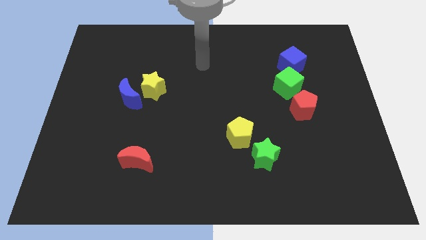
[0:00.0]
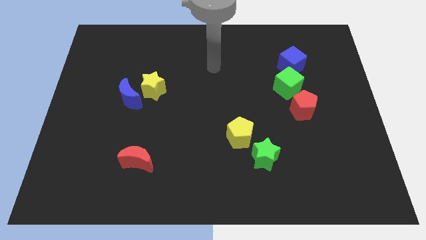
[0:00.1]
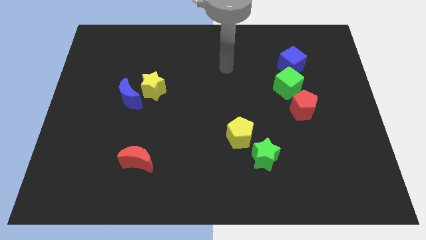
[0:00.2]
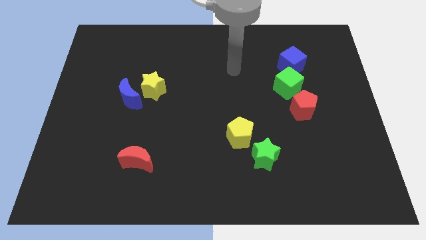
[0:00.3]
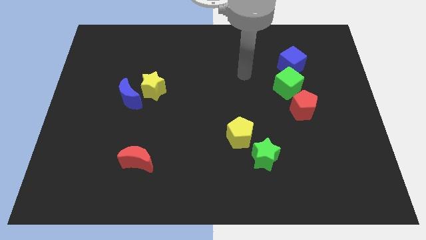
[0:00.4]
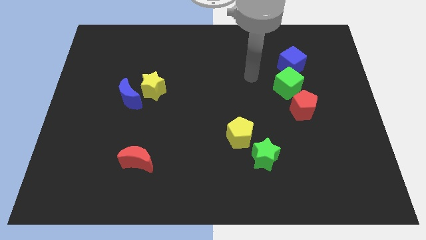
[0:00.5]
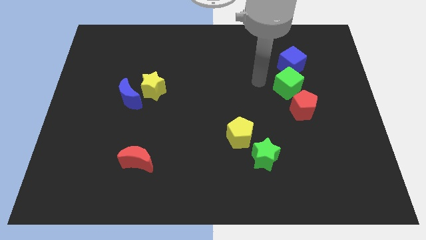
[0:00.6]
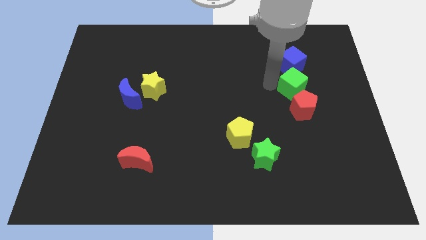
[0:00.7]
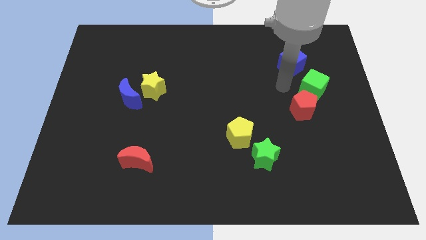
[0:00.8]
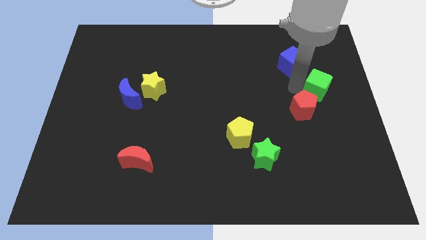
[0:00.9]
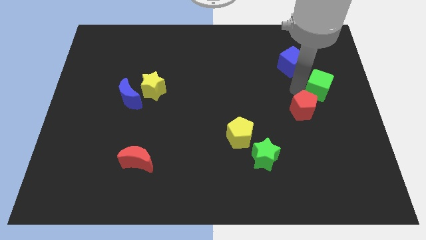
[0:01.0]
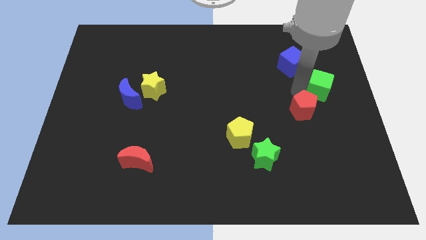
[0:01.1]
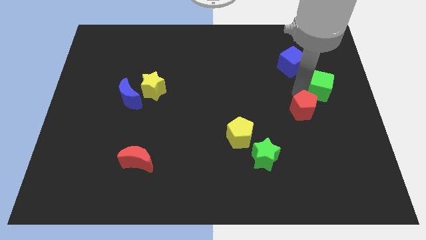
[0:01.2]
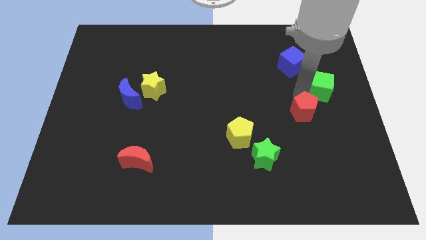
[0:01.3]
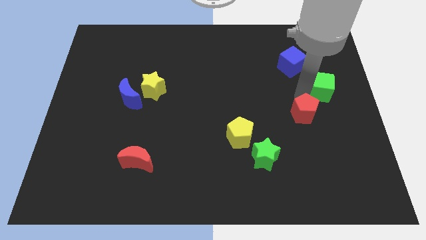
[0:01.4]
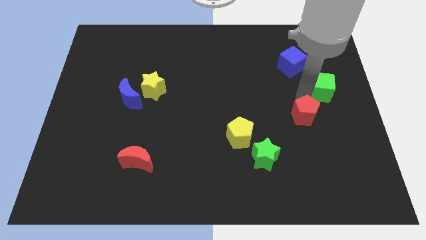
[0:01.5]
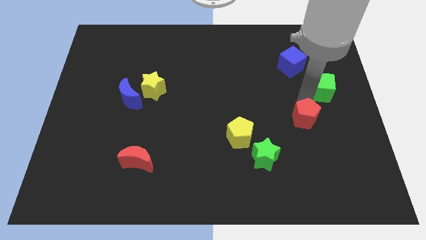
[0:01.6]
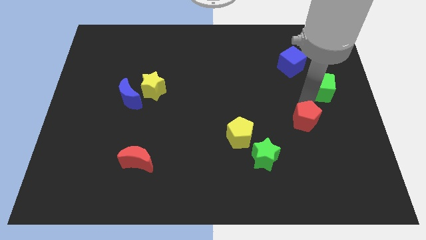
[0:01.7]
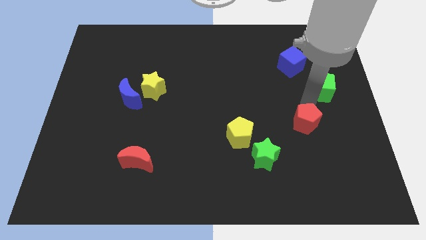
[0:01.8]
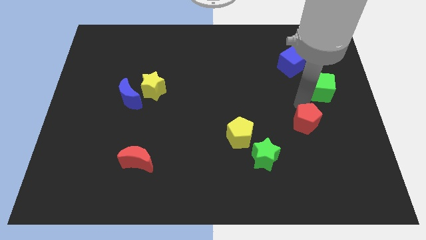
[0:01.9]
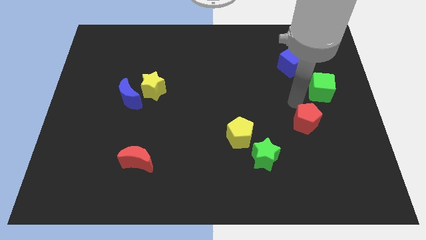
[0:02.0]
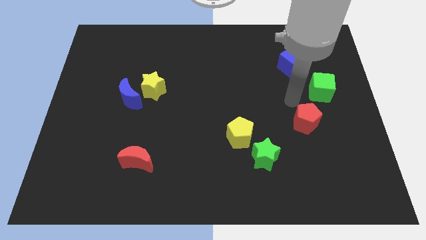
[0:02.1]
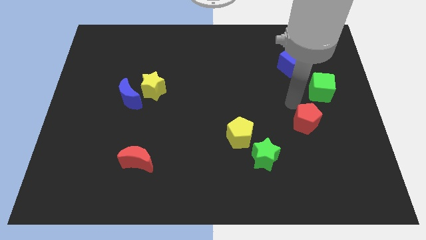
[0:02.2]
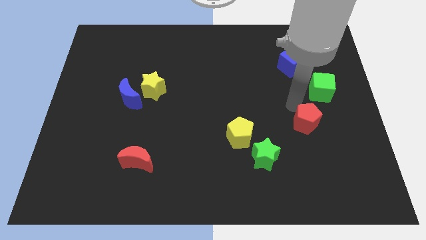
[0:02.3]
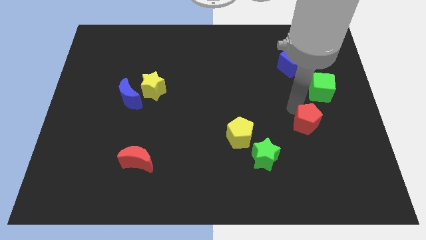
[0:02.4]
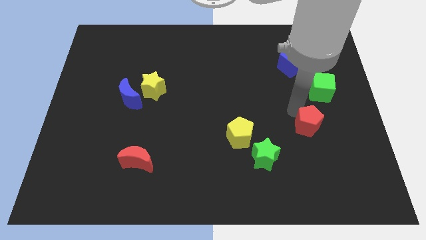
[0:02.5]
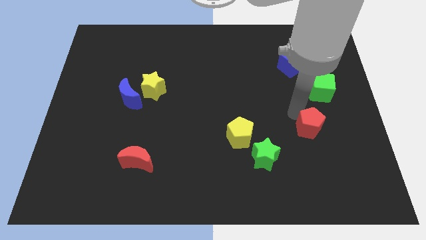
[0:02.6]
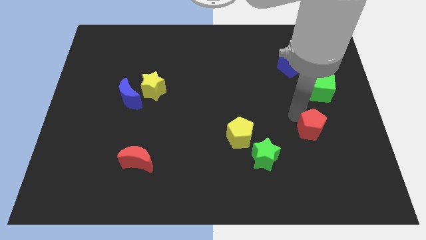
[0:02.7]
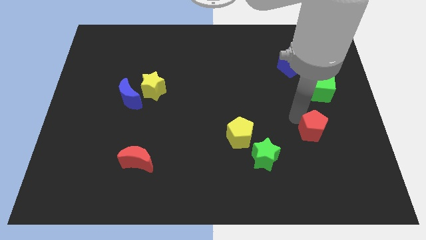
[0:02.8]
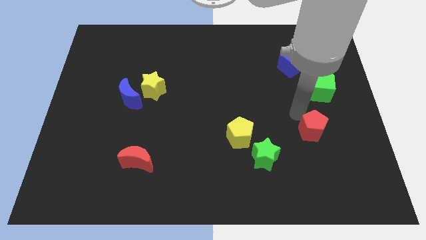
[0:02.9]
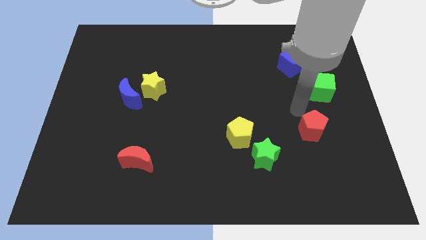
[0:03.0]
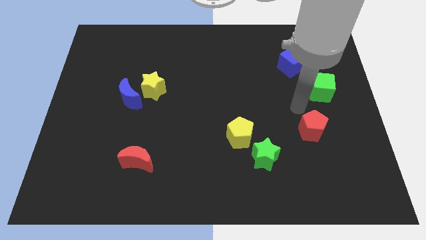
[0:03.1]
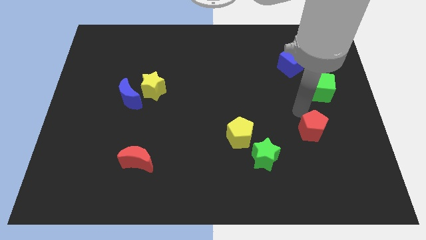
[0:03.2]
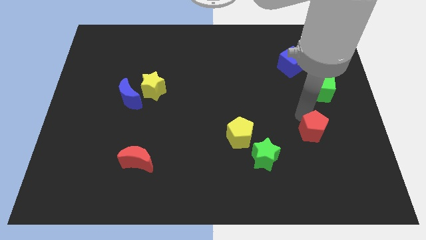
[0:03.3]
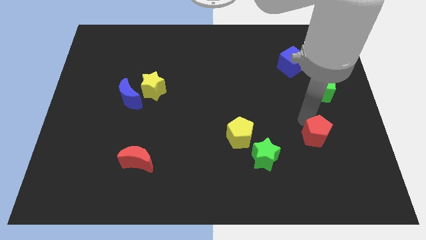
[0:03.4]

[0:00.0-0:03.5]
push the red pentagon down slightly

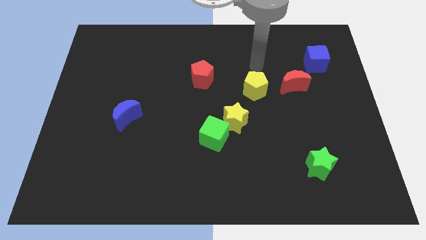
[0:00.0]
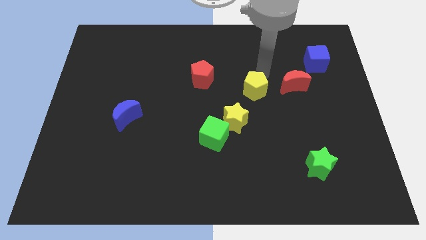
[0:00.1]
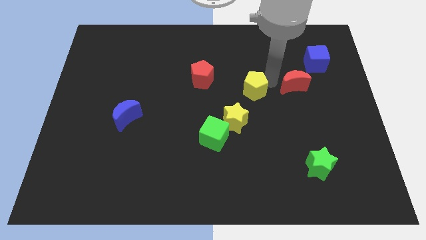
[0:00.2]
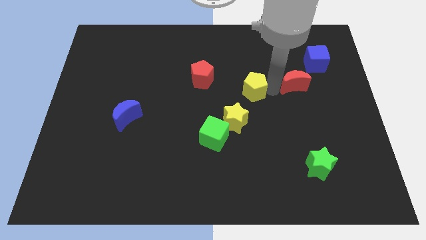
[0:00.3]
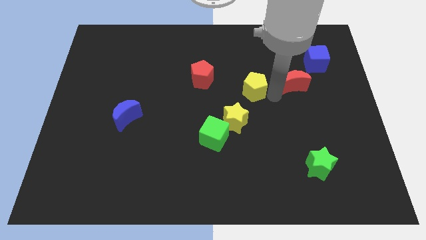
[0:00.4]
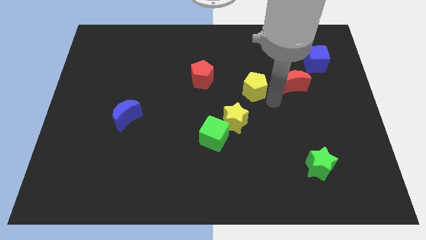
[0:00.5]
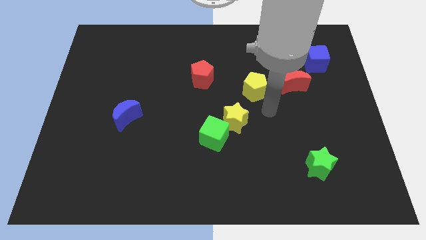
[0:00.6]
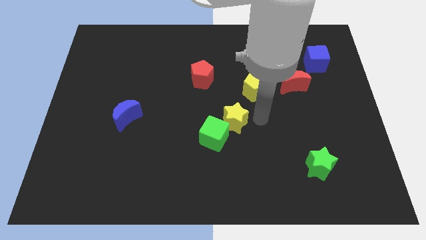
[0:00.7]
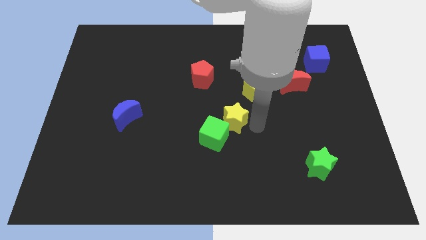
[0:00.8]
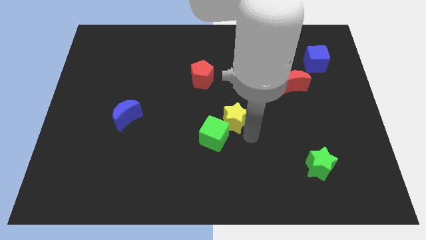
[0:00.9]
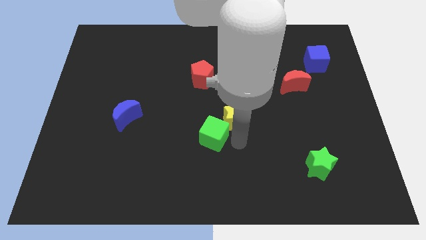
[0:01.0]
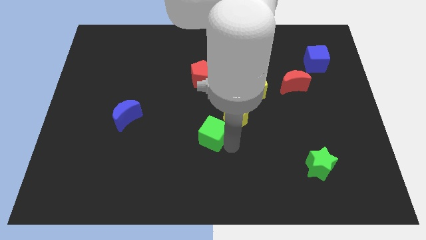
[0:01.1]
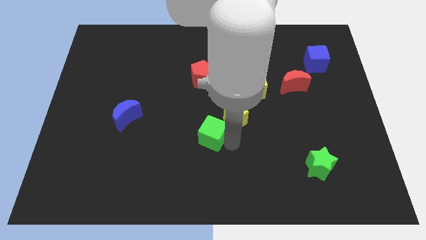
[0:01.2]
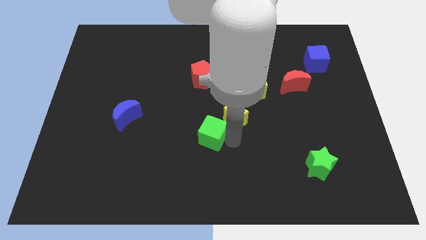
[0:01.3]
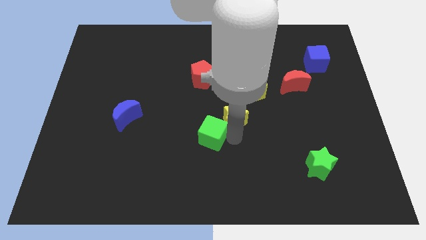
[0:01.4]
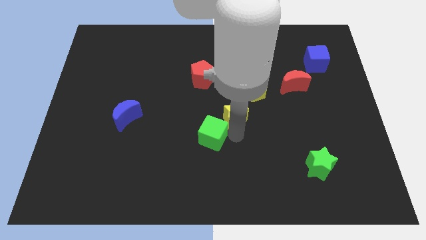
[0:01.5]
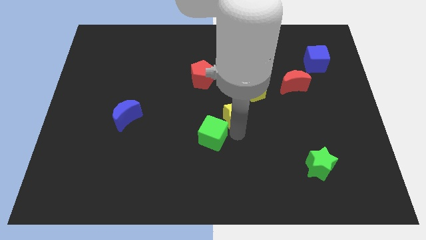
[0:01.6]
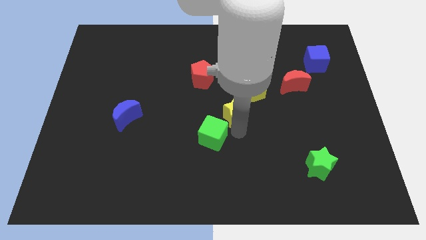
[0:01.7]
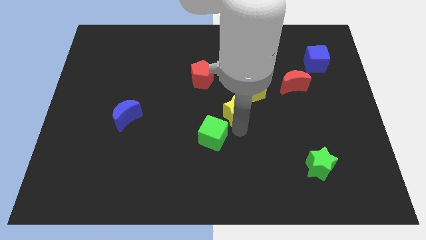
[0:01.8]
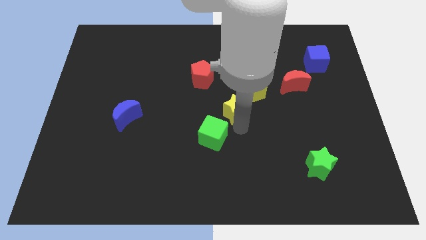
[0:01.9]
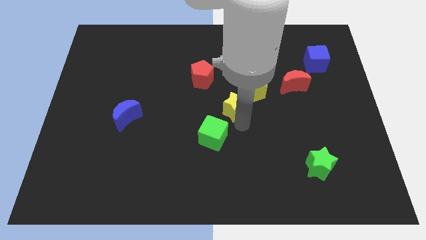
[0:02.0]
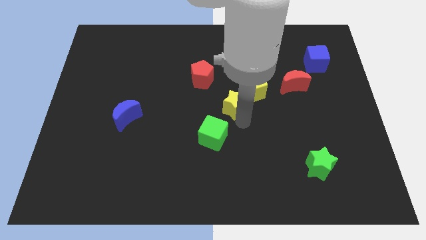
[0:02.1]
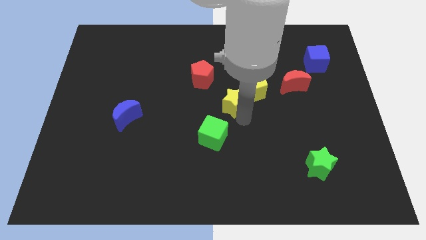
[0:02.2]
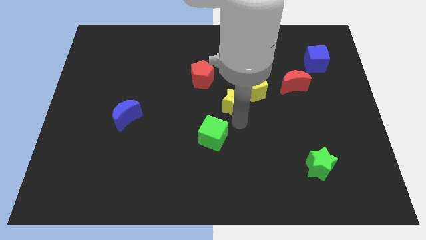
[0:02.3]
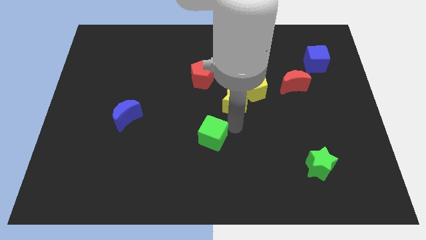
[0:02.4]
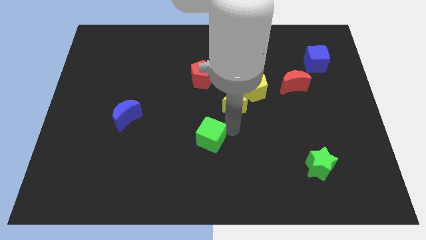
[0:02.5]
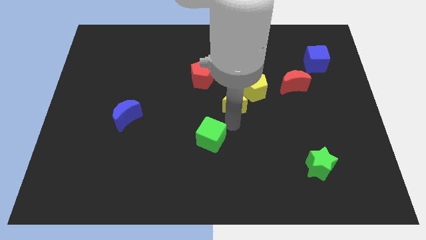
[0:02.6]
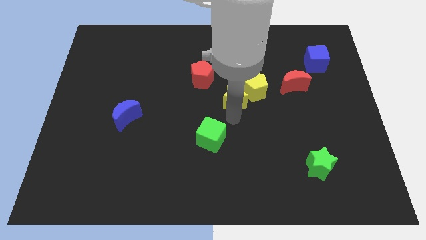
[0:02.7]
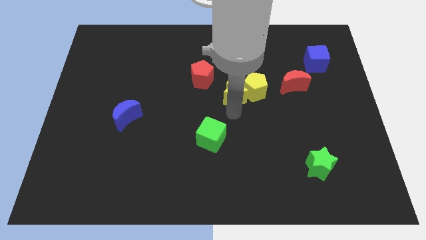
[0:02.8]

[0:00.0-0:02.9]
slide the yellow star somewhat upwards

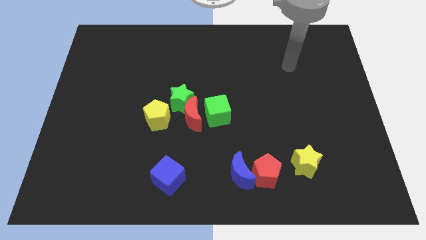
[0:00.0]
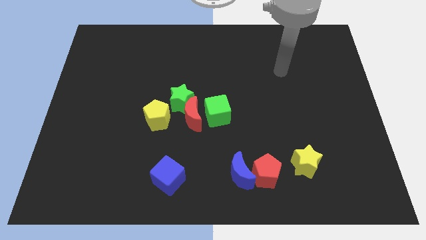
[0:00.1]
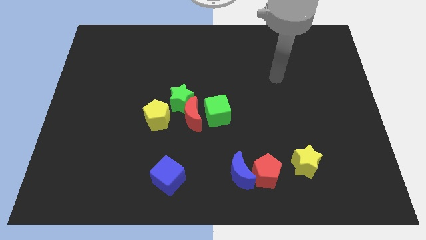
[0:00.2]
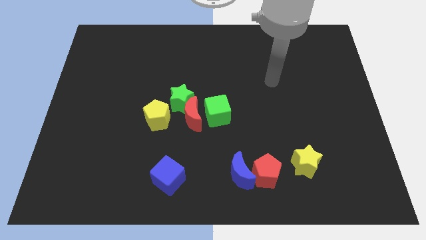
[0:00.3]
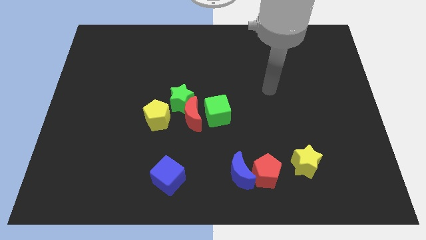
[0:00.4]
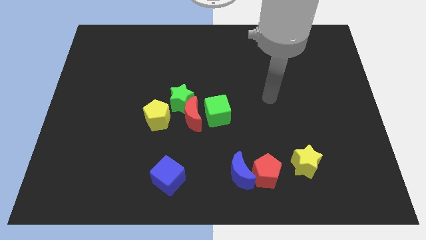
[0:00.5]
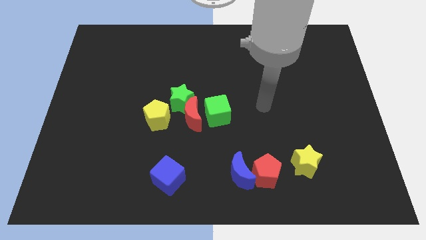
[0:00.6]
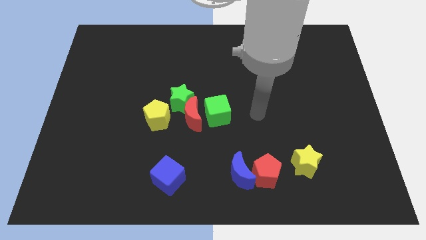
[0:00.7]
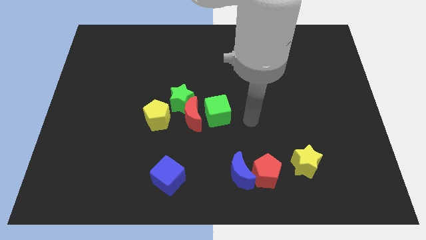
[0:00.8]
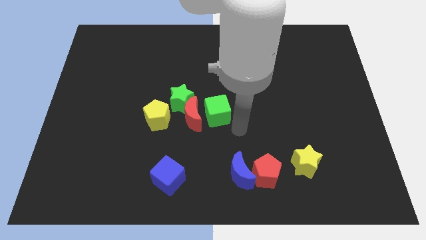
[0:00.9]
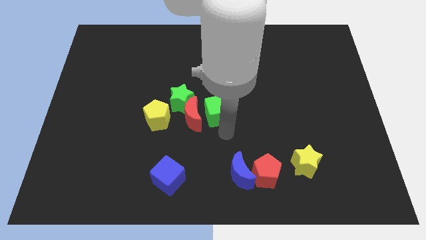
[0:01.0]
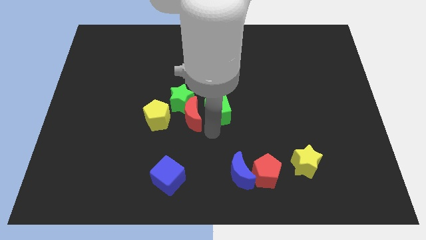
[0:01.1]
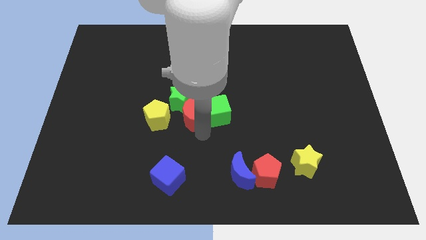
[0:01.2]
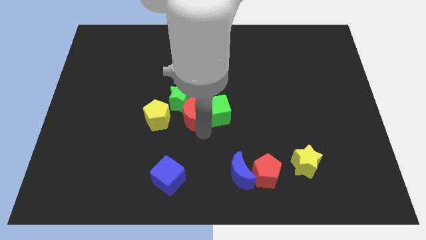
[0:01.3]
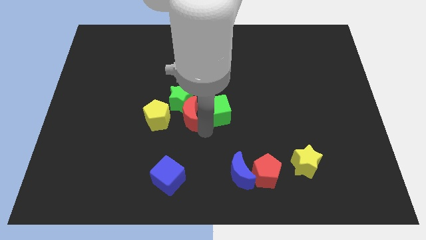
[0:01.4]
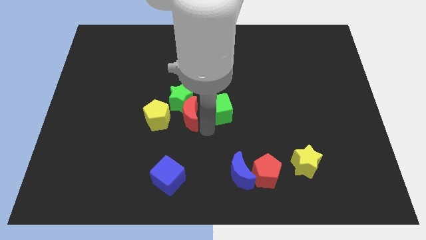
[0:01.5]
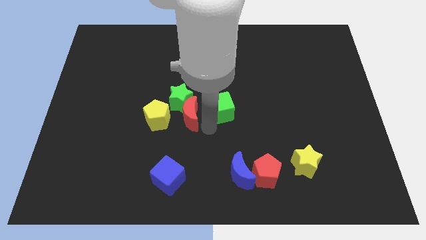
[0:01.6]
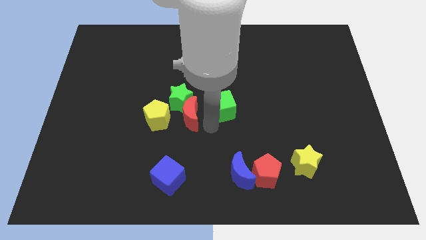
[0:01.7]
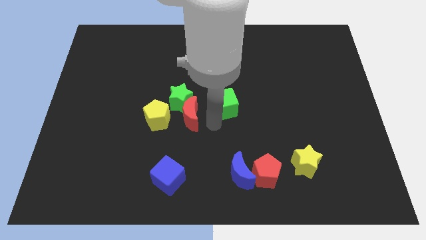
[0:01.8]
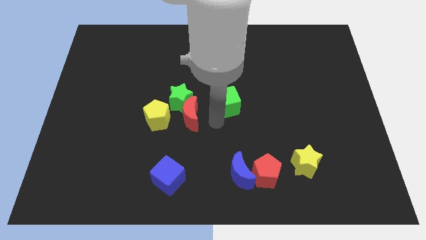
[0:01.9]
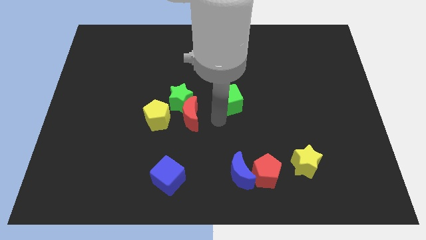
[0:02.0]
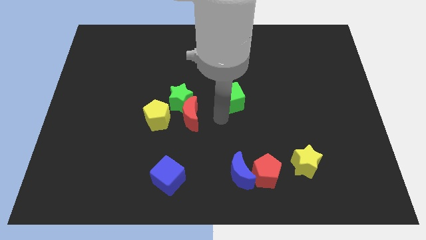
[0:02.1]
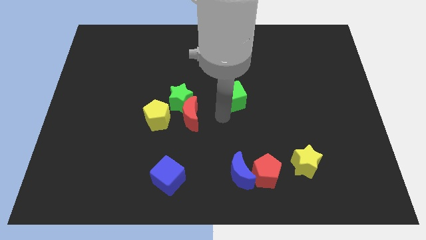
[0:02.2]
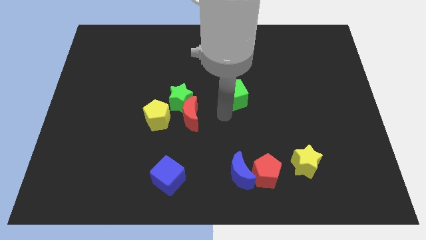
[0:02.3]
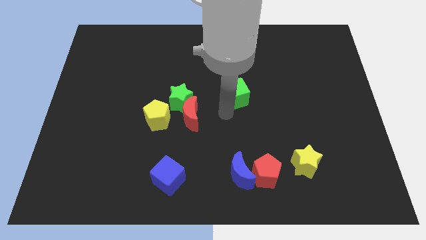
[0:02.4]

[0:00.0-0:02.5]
slightly slide the green cube upwards and right diagonally
